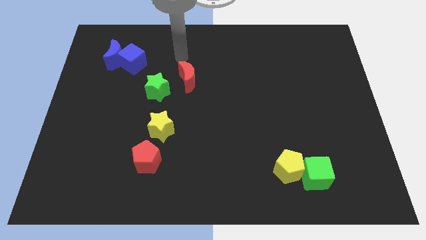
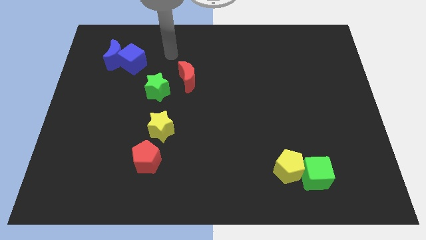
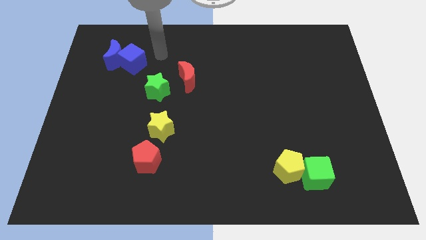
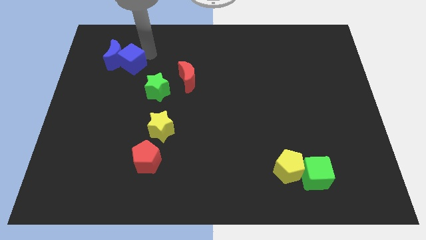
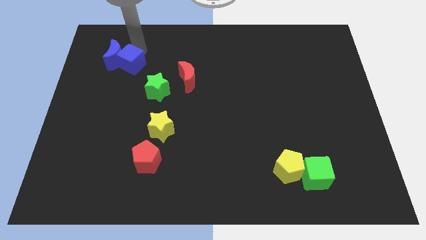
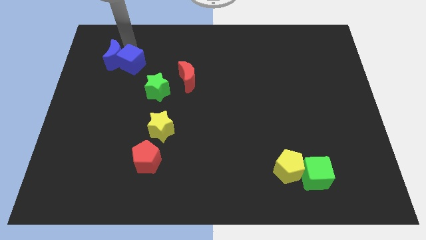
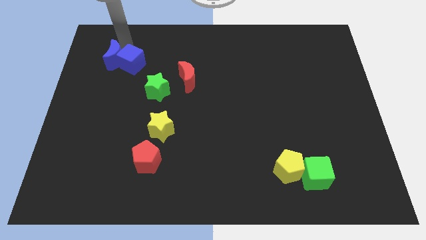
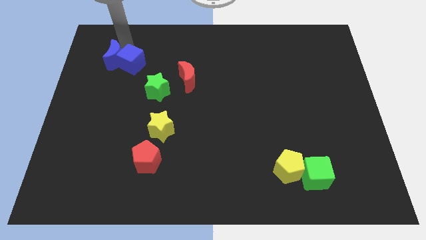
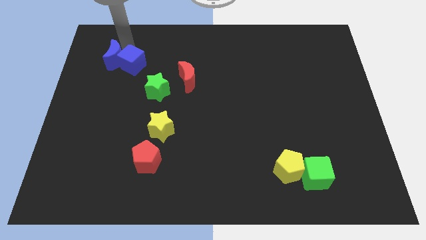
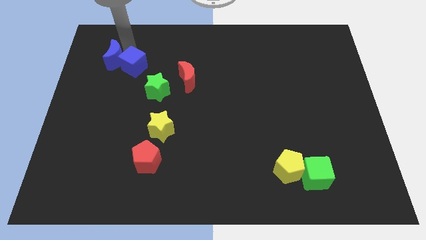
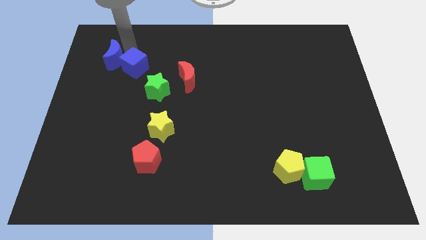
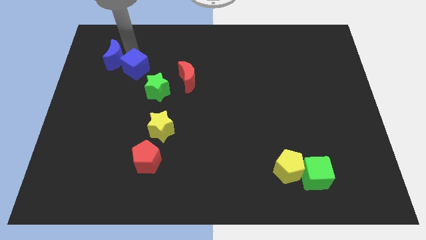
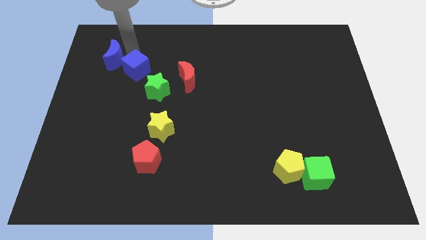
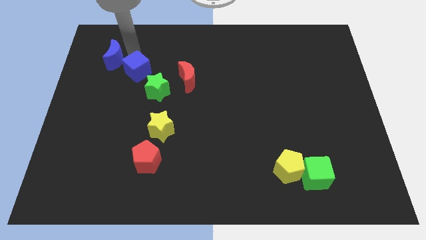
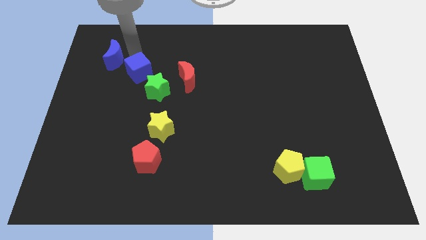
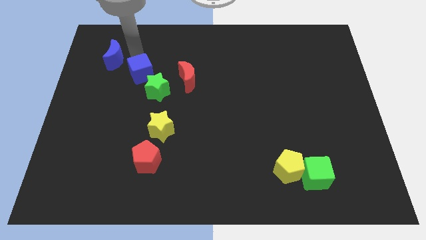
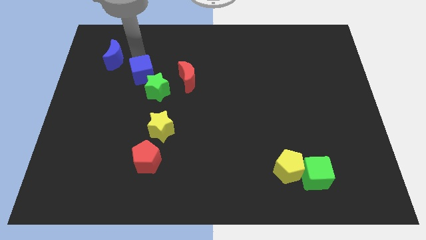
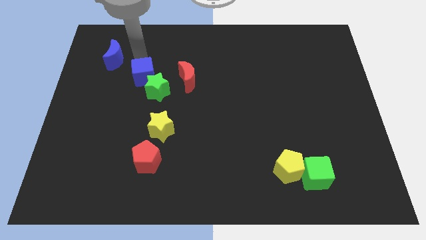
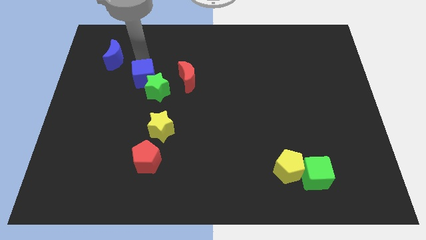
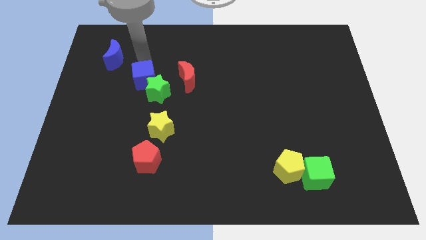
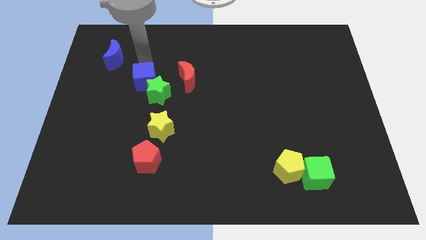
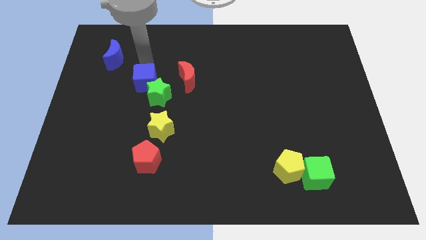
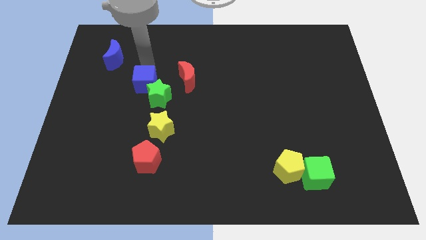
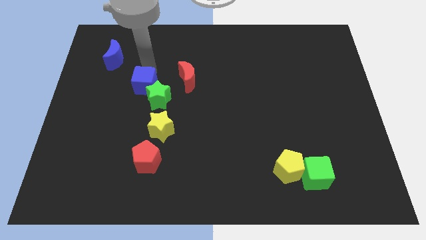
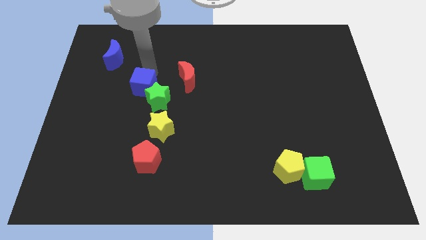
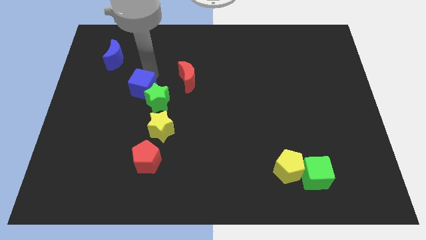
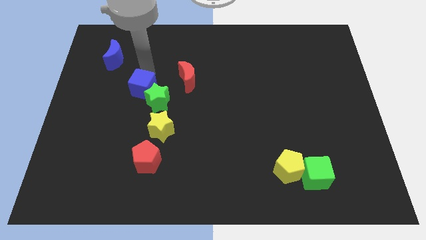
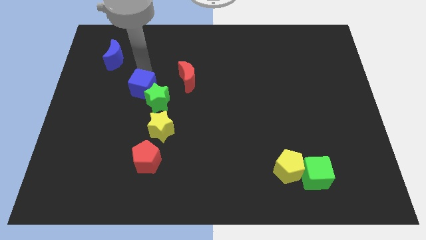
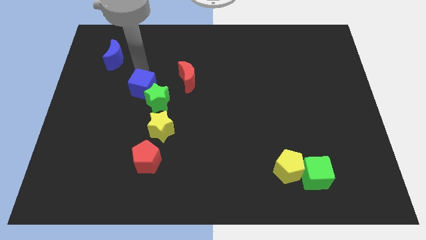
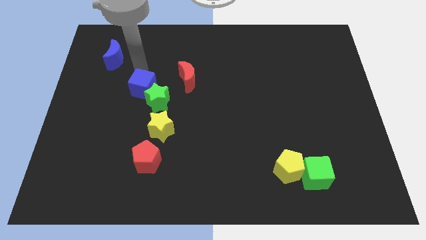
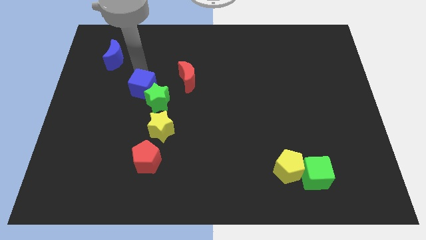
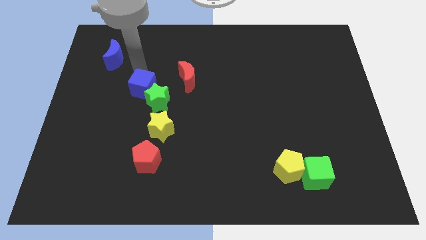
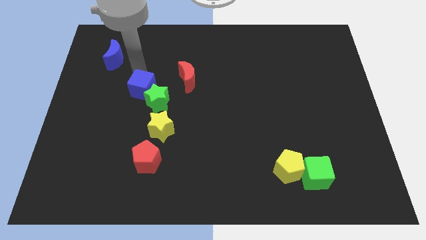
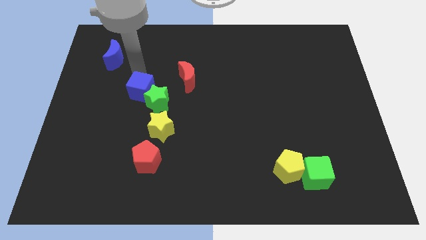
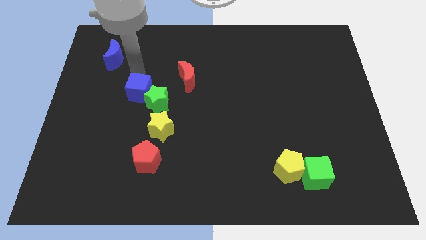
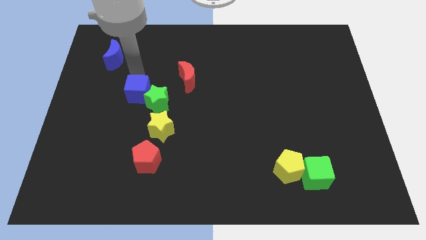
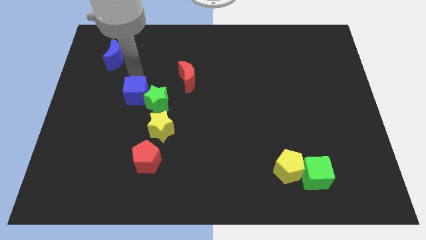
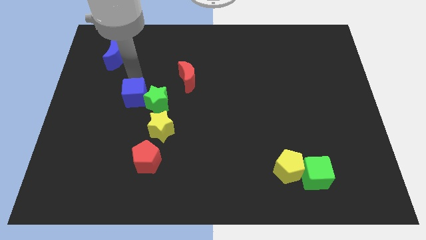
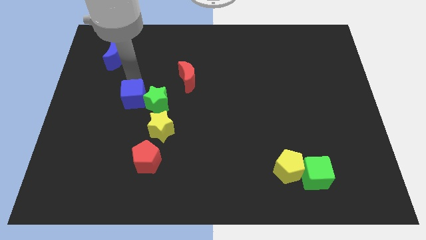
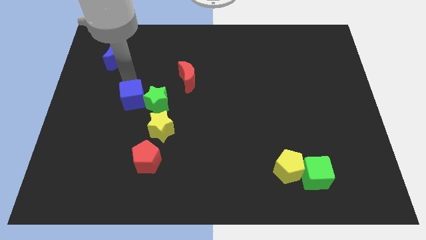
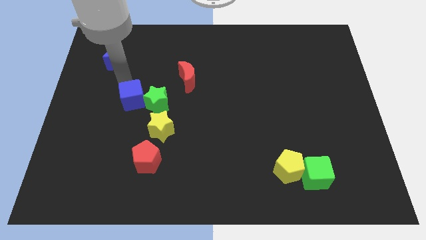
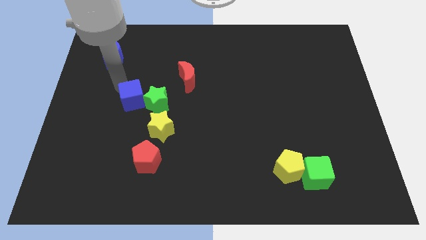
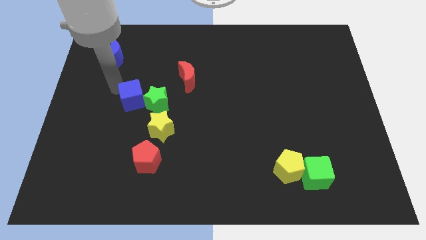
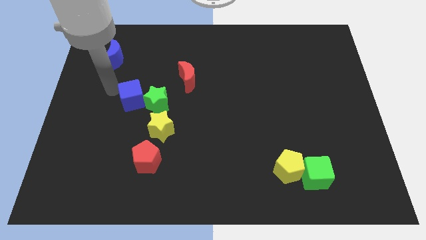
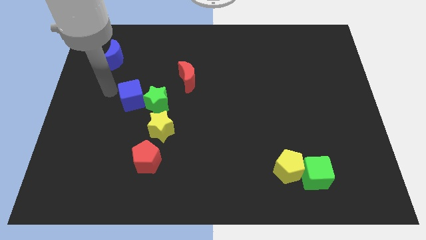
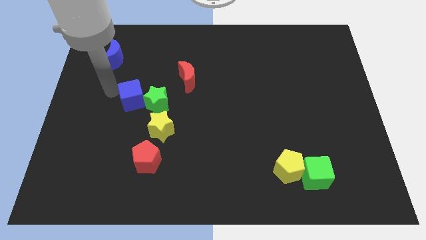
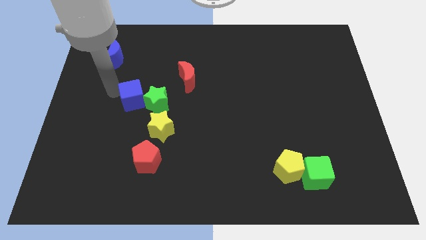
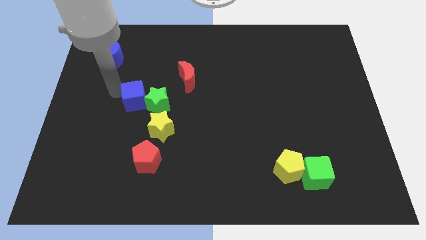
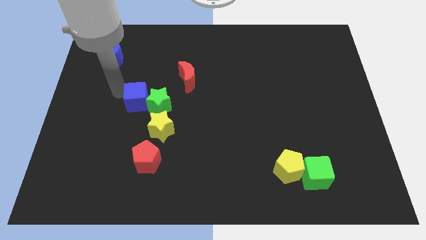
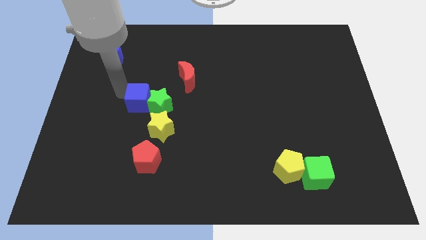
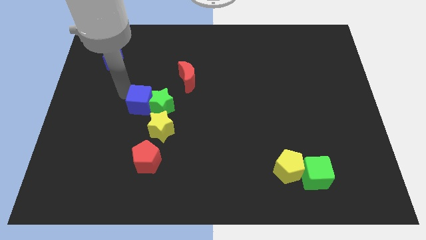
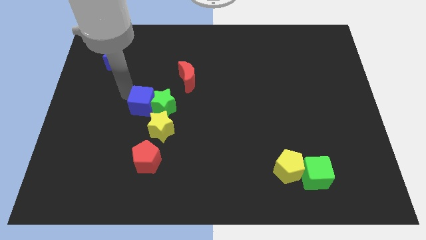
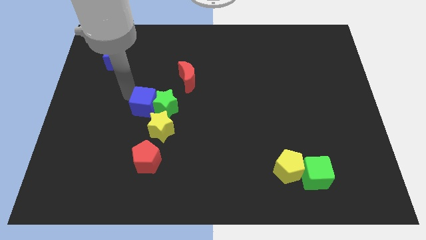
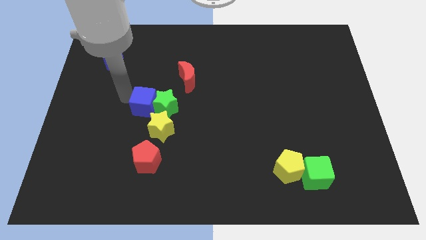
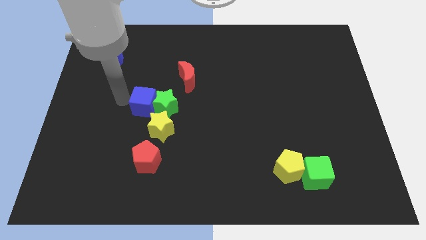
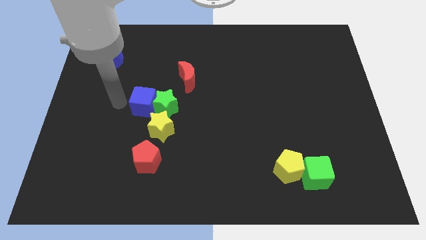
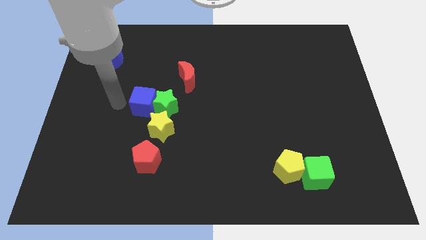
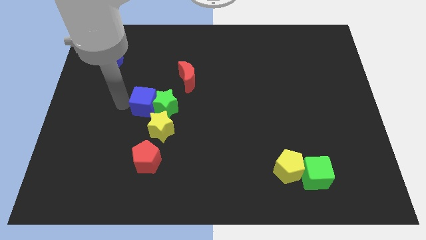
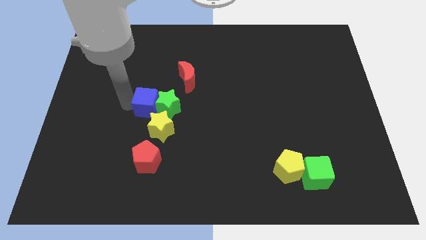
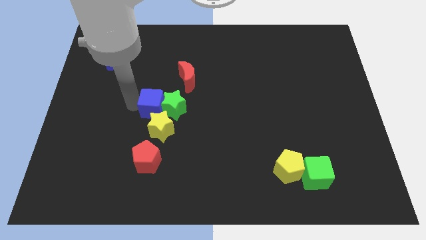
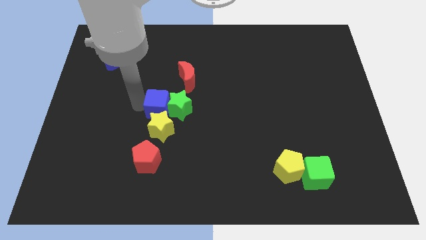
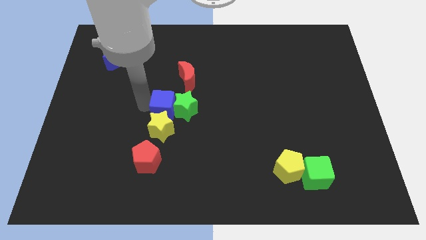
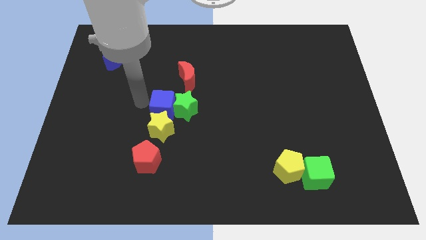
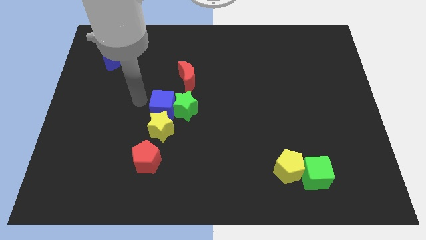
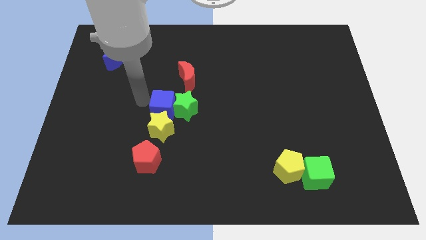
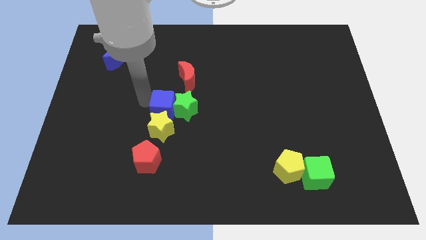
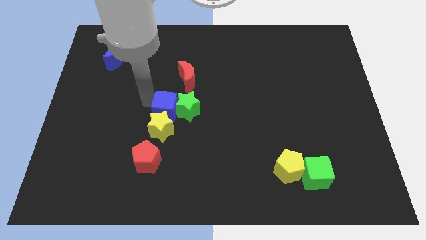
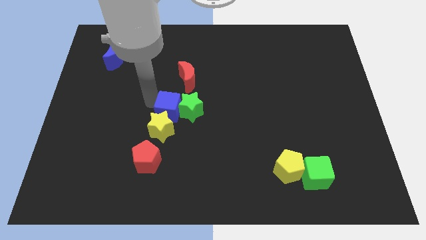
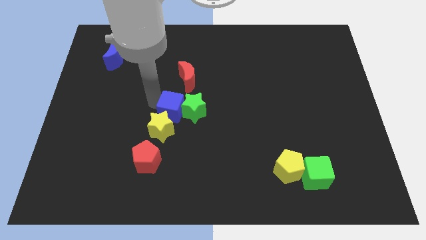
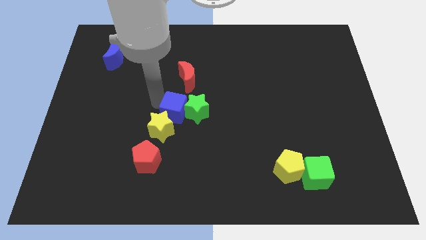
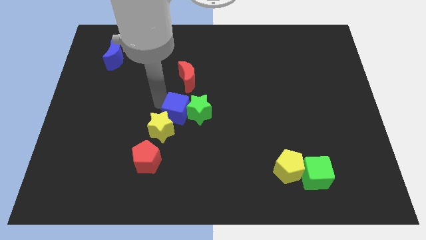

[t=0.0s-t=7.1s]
push the blue cube diagonally downwards and to the right

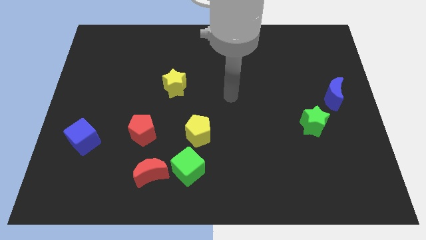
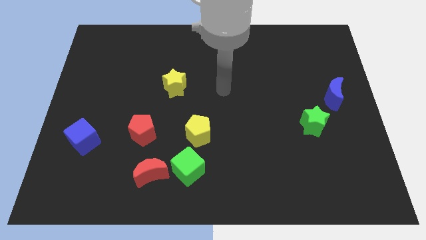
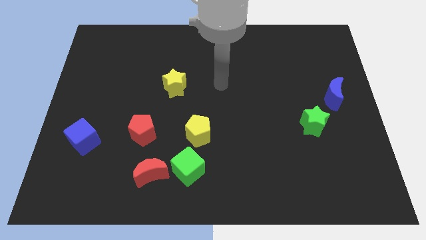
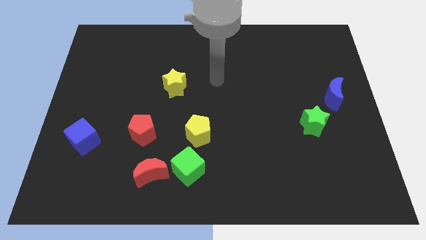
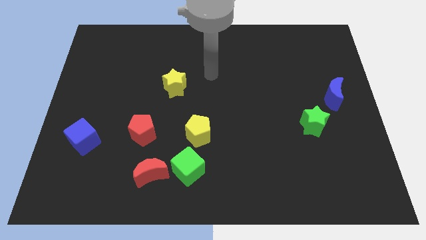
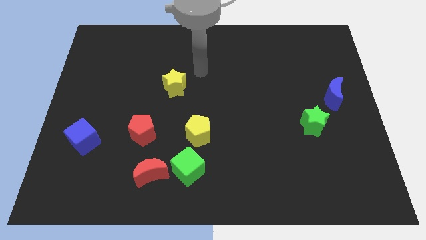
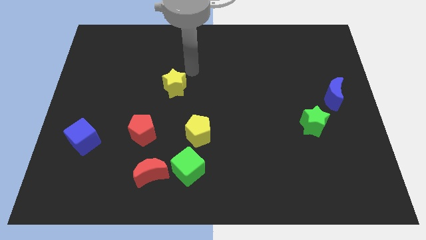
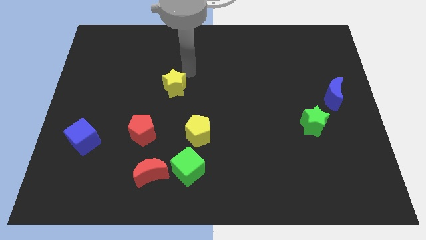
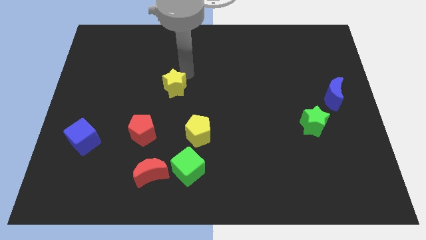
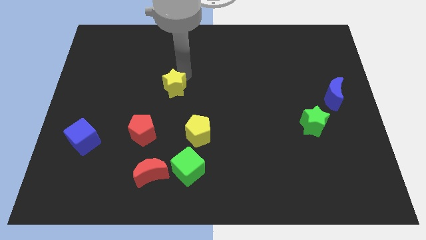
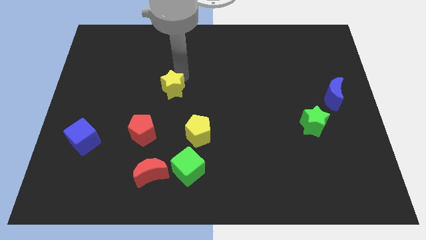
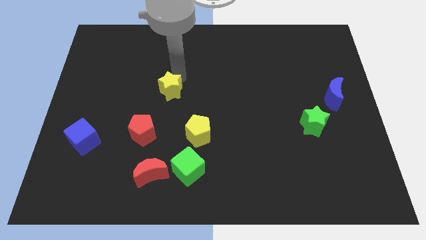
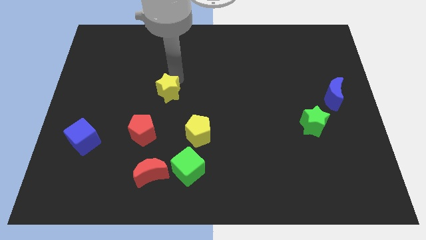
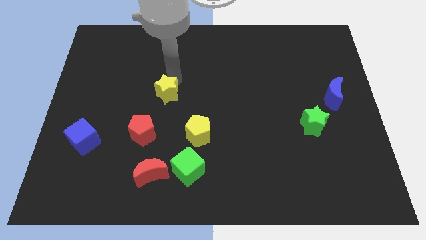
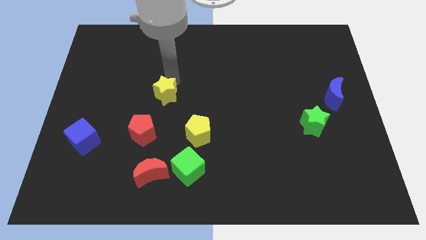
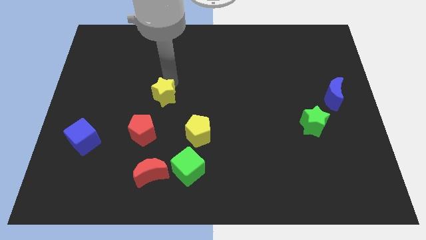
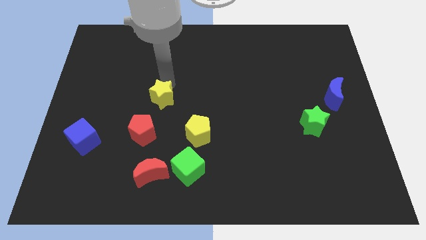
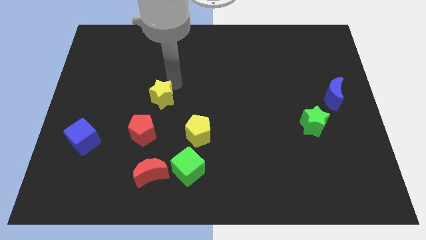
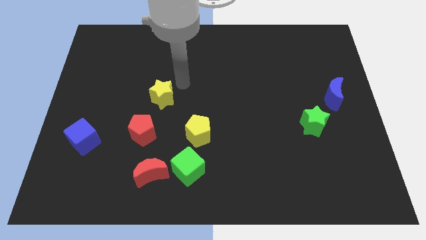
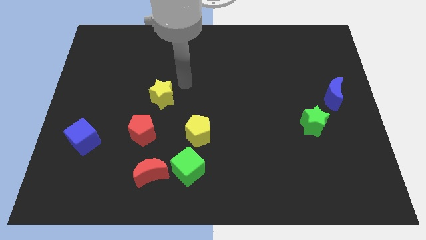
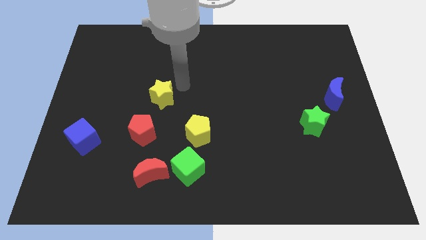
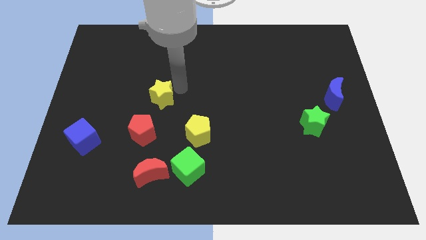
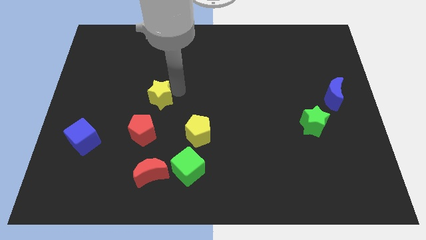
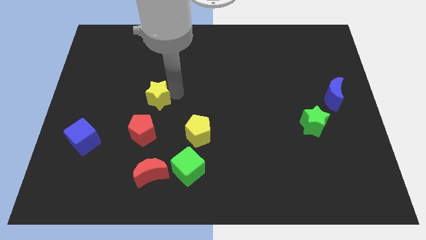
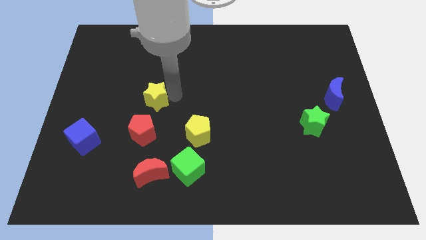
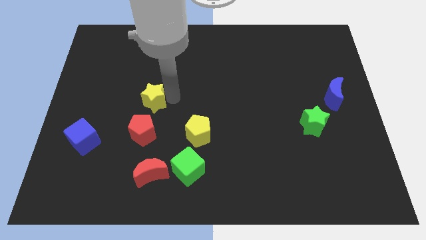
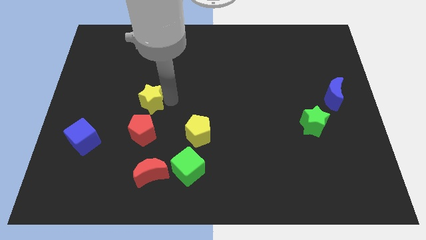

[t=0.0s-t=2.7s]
slightly slide the yellow star downwards and left
